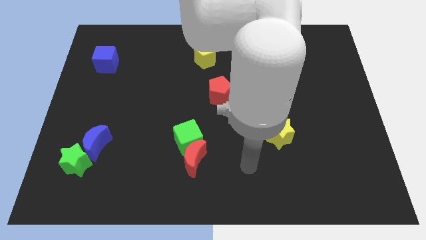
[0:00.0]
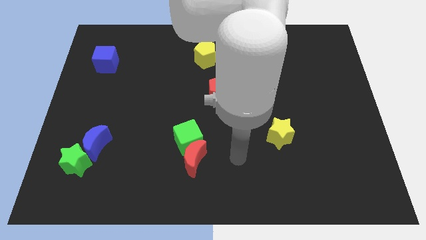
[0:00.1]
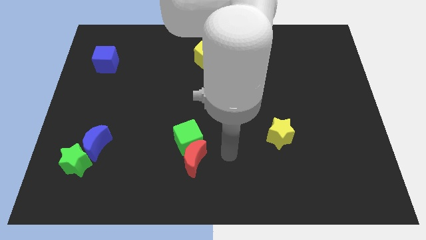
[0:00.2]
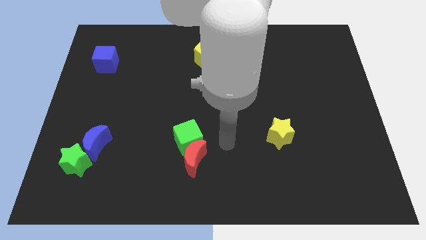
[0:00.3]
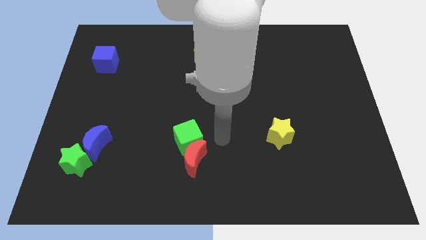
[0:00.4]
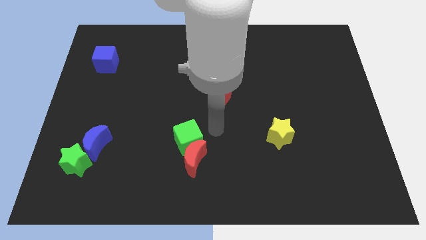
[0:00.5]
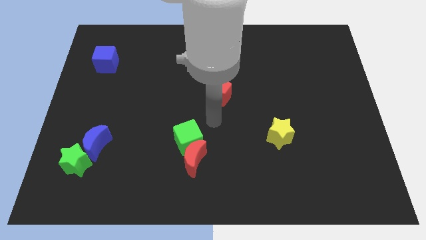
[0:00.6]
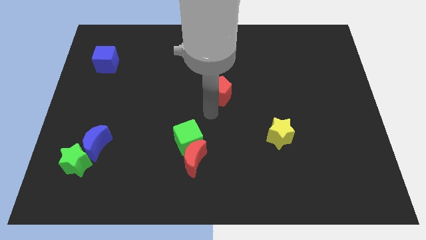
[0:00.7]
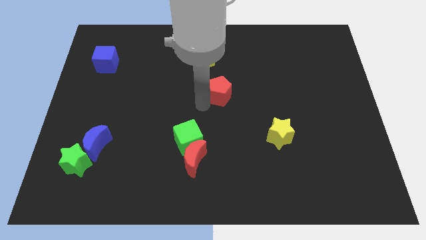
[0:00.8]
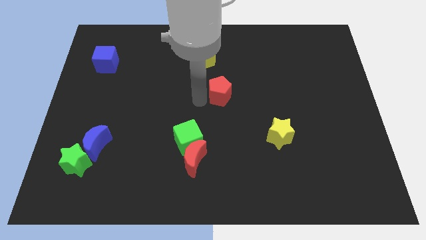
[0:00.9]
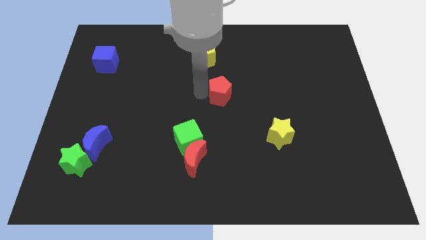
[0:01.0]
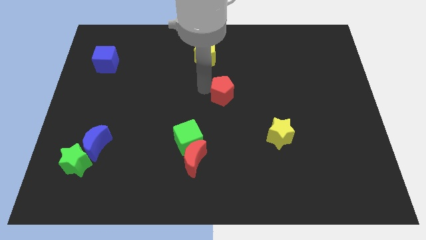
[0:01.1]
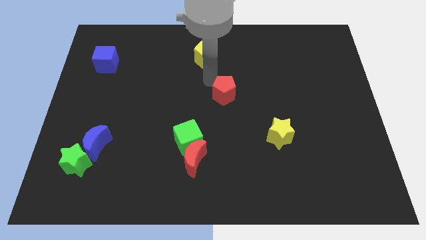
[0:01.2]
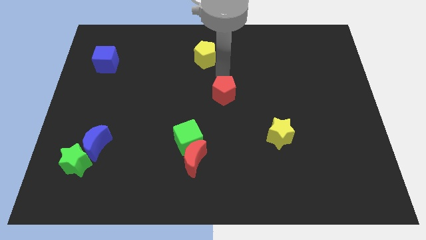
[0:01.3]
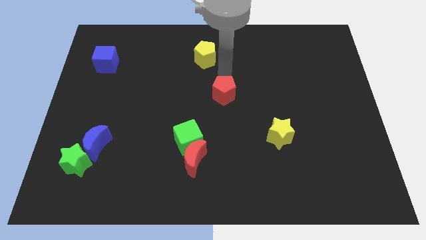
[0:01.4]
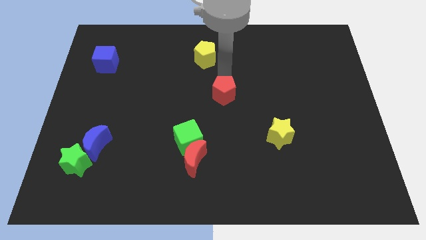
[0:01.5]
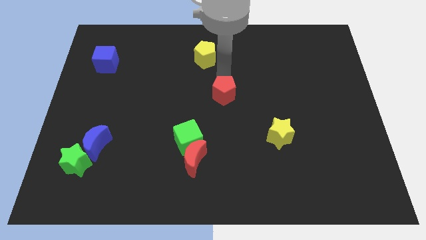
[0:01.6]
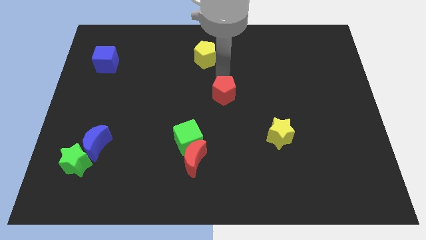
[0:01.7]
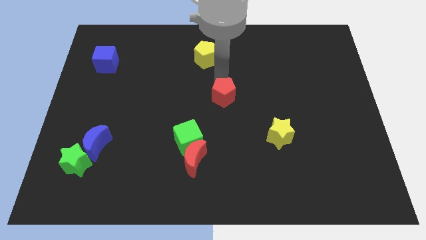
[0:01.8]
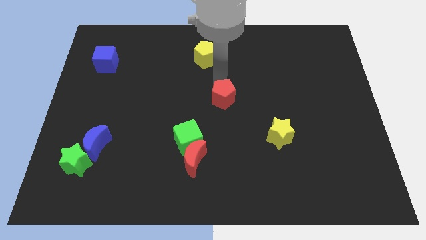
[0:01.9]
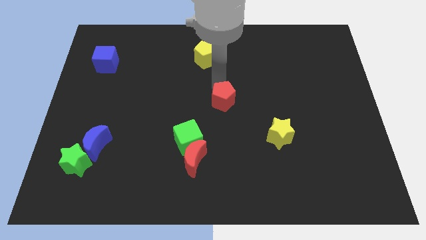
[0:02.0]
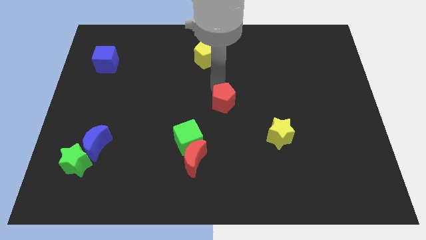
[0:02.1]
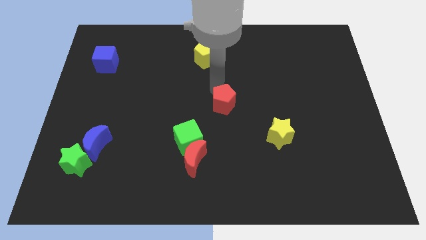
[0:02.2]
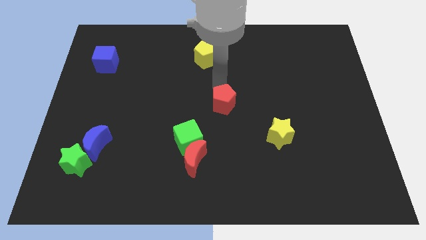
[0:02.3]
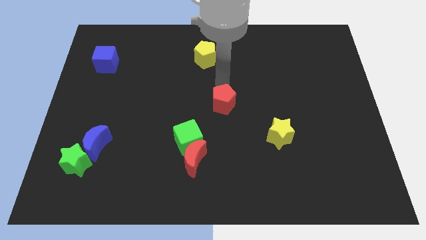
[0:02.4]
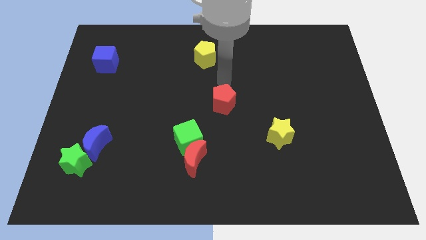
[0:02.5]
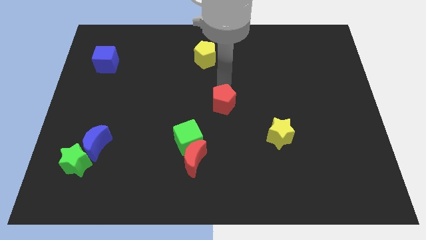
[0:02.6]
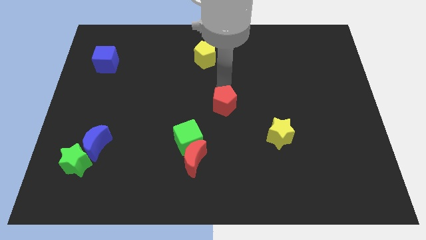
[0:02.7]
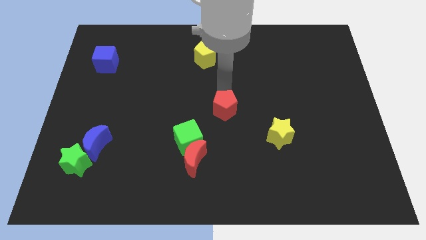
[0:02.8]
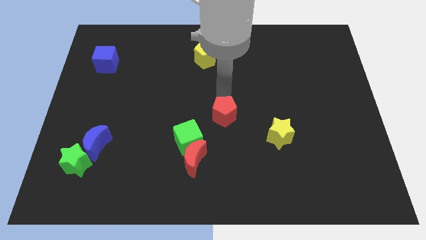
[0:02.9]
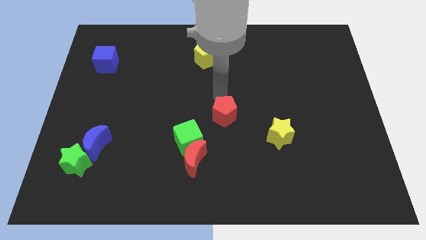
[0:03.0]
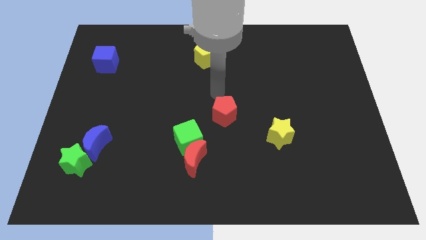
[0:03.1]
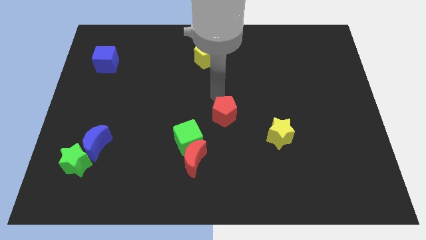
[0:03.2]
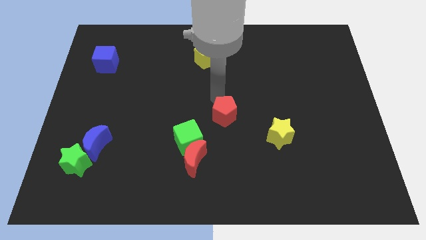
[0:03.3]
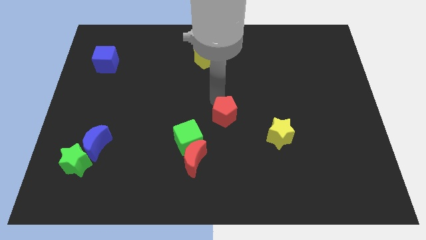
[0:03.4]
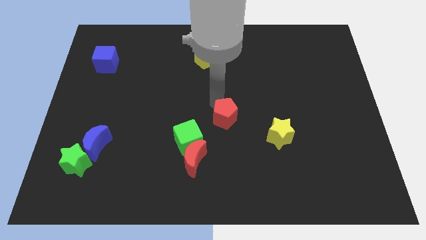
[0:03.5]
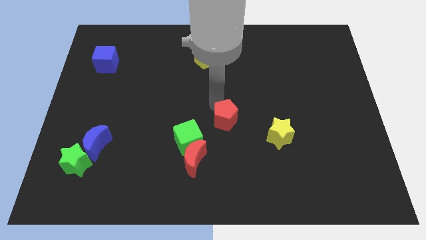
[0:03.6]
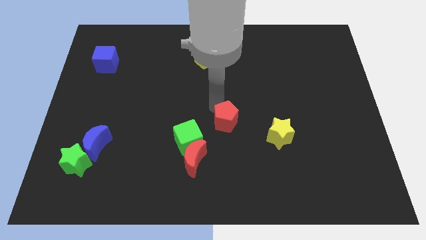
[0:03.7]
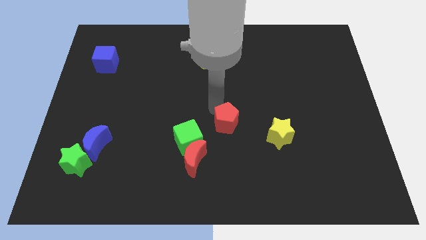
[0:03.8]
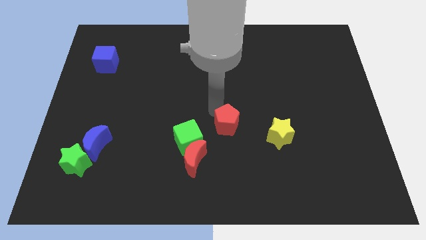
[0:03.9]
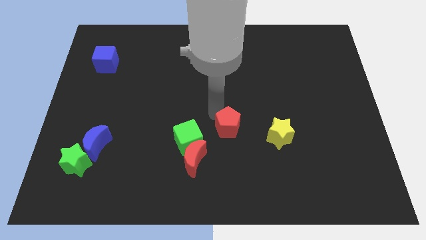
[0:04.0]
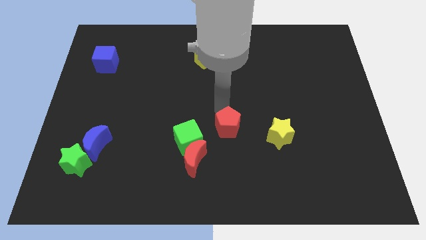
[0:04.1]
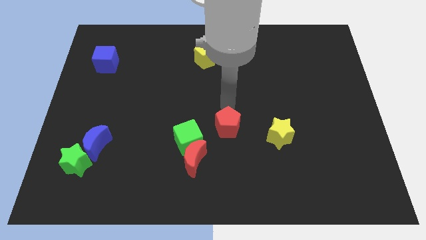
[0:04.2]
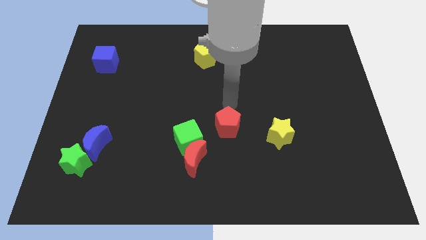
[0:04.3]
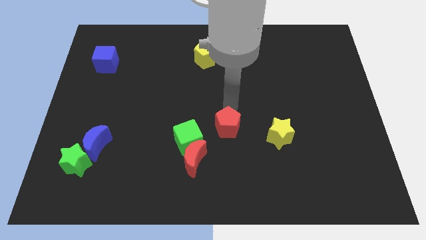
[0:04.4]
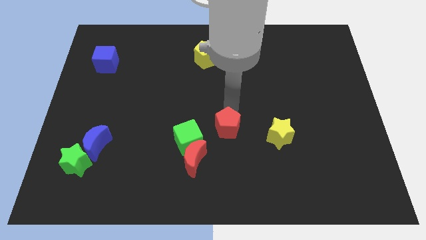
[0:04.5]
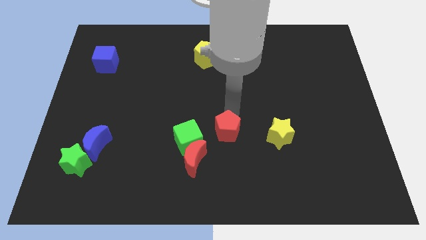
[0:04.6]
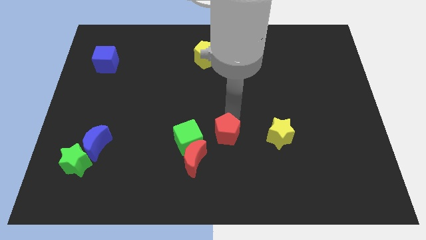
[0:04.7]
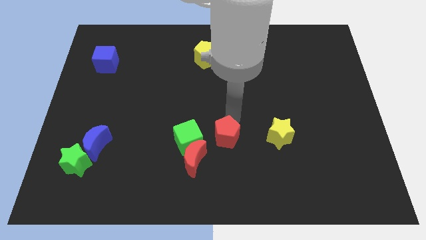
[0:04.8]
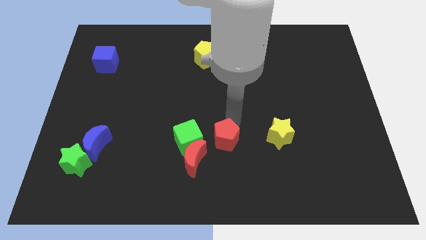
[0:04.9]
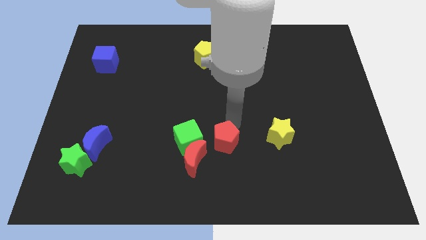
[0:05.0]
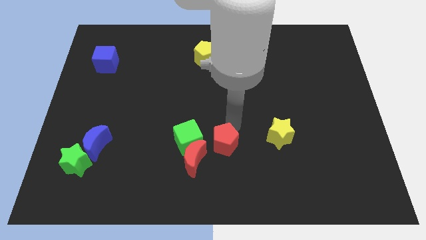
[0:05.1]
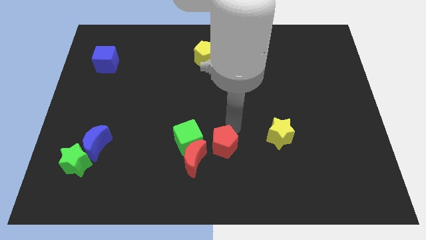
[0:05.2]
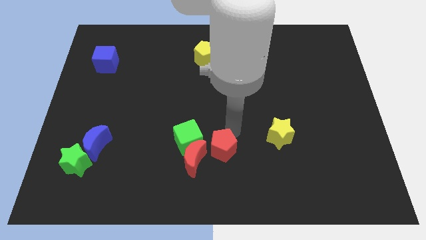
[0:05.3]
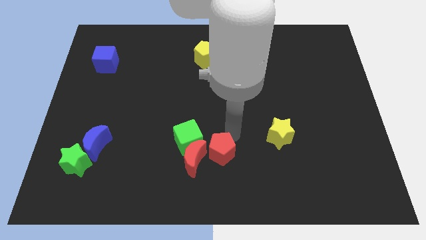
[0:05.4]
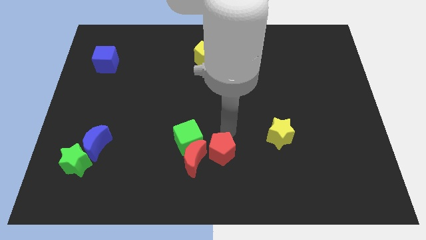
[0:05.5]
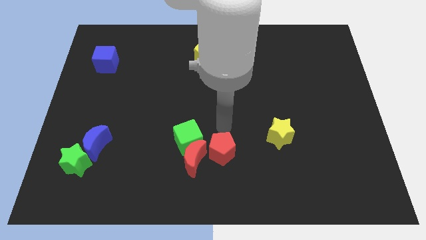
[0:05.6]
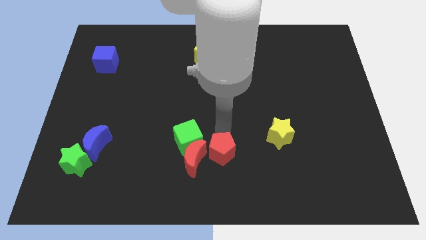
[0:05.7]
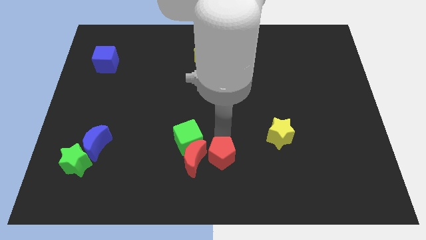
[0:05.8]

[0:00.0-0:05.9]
move the red pentagon to the bottom right of the red moon
